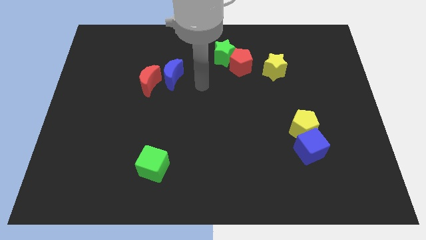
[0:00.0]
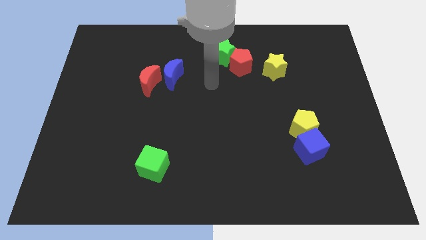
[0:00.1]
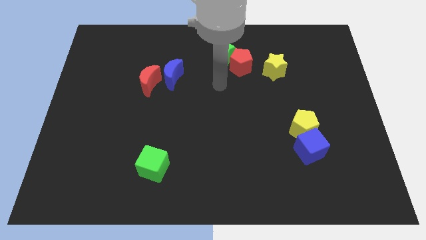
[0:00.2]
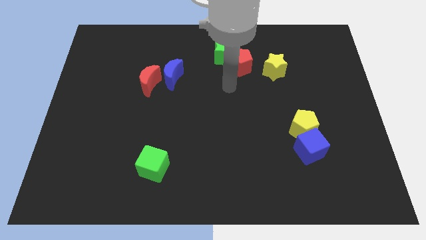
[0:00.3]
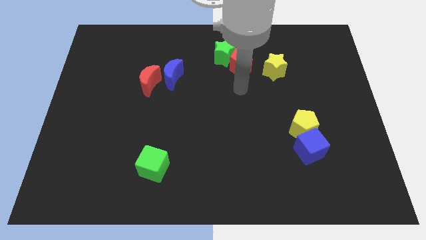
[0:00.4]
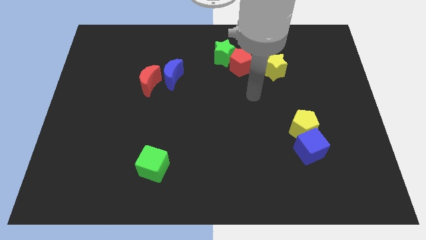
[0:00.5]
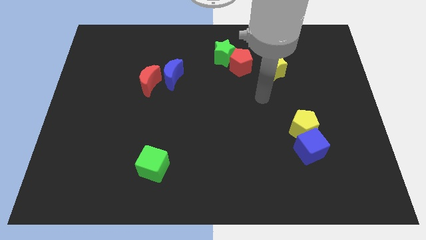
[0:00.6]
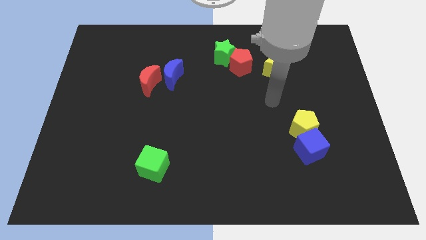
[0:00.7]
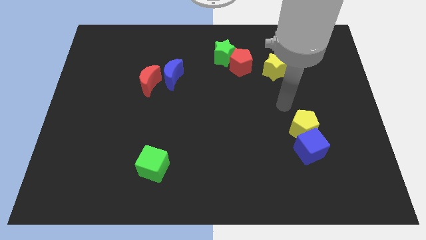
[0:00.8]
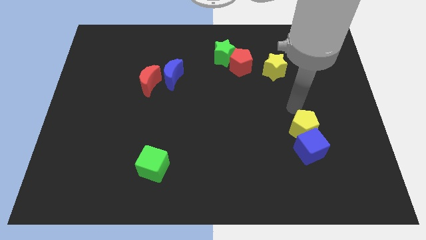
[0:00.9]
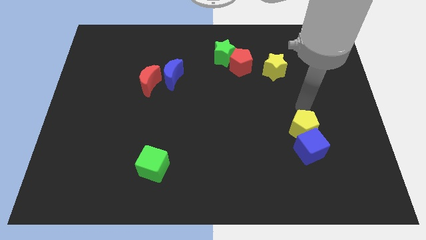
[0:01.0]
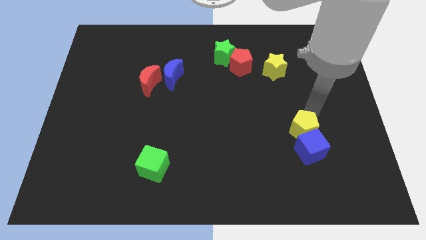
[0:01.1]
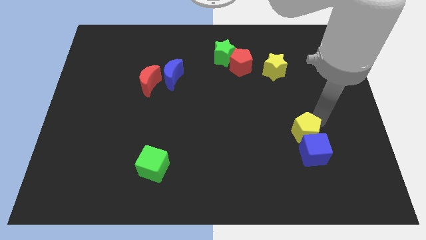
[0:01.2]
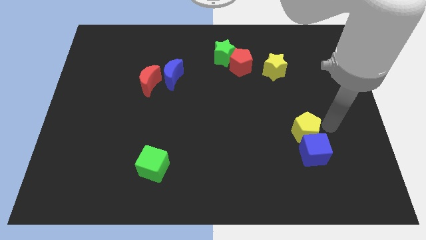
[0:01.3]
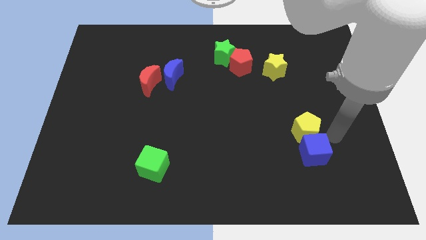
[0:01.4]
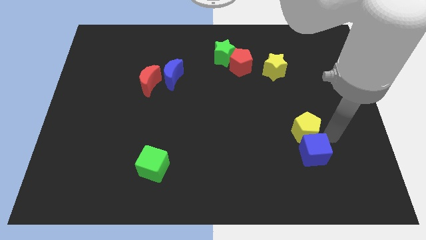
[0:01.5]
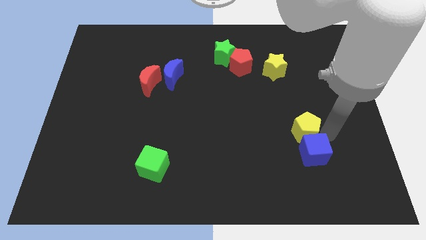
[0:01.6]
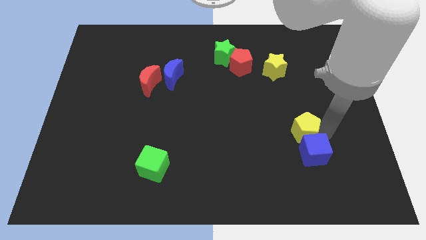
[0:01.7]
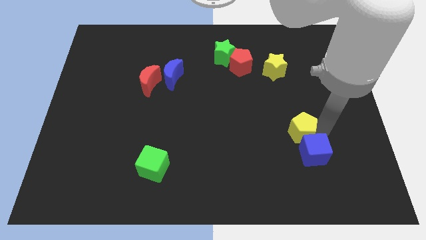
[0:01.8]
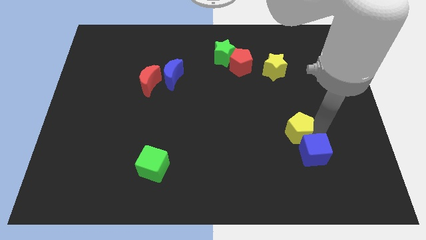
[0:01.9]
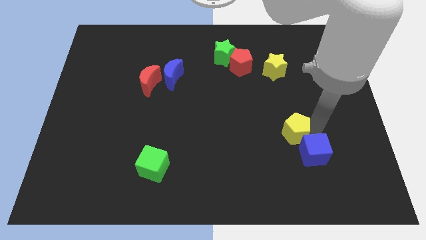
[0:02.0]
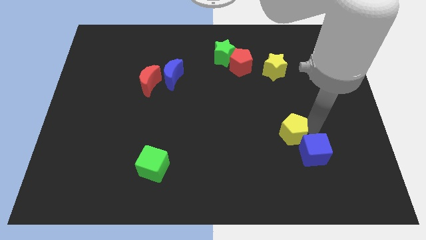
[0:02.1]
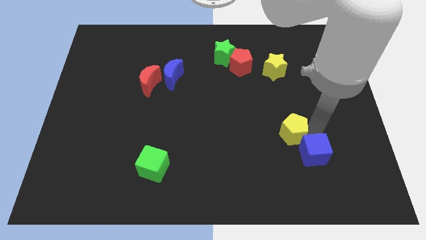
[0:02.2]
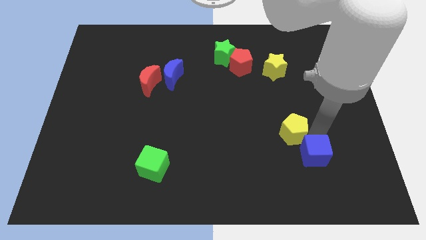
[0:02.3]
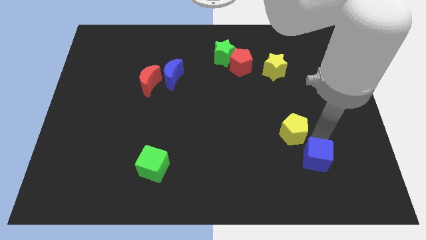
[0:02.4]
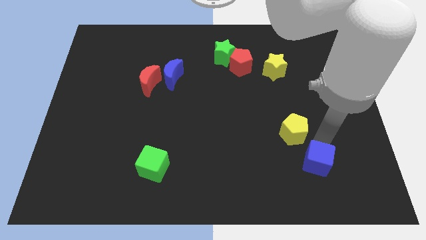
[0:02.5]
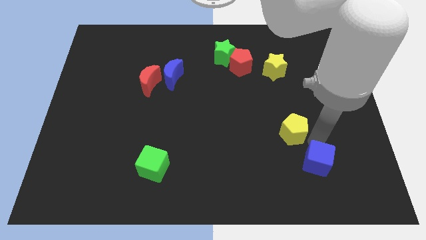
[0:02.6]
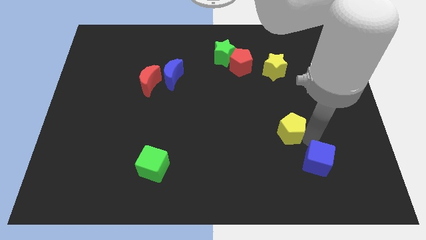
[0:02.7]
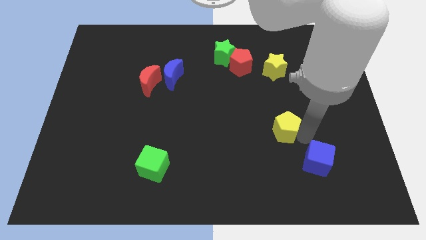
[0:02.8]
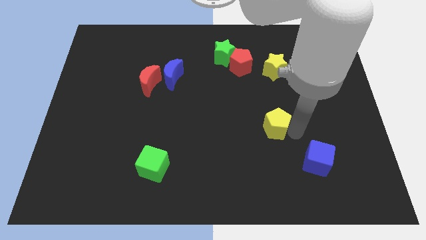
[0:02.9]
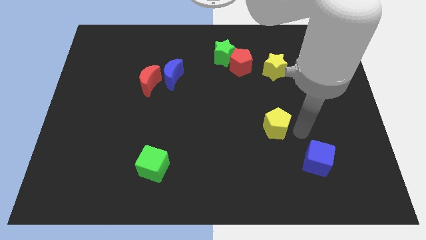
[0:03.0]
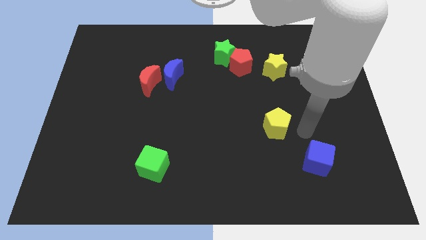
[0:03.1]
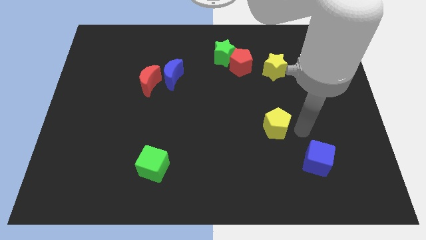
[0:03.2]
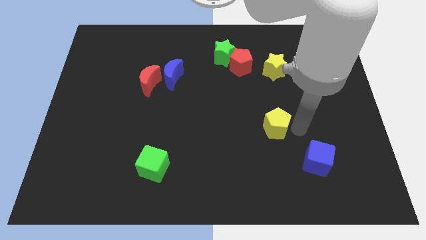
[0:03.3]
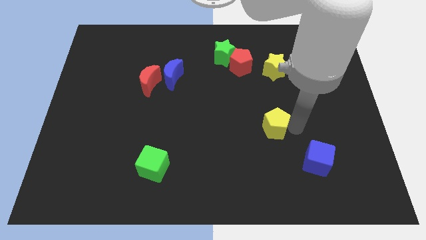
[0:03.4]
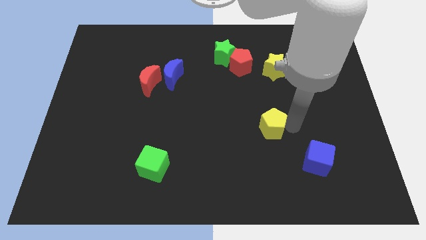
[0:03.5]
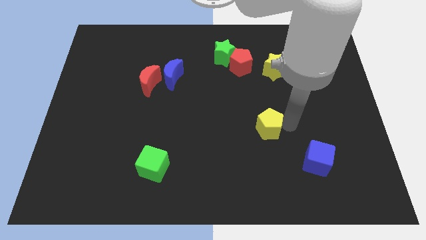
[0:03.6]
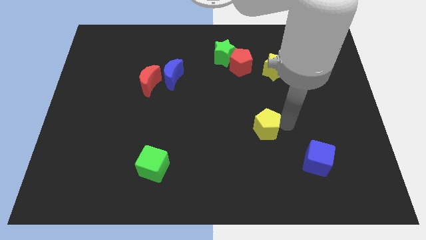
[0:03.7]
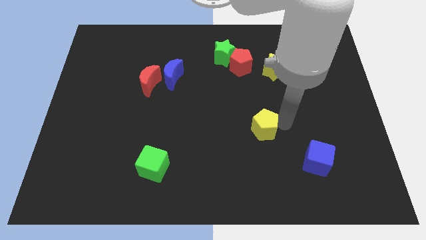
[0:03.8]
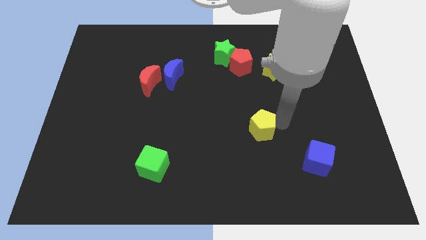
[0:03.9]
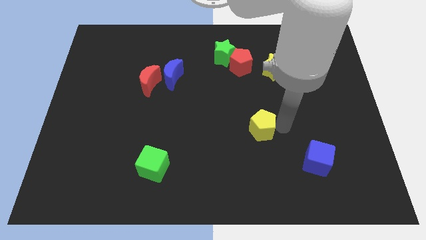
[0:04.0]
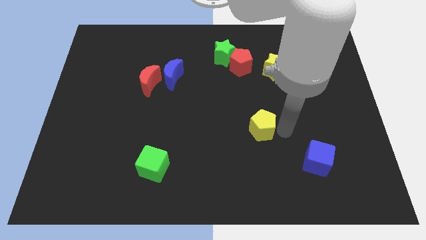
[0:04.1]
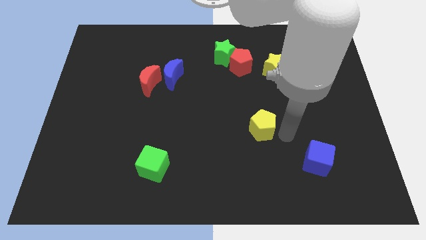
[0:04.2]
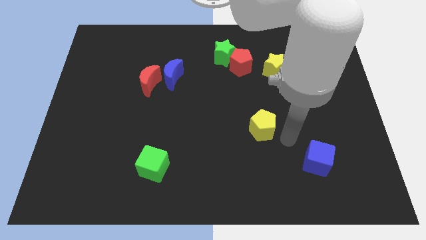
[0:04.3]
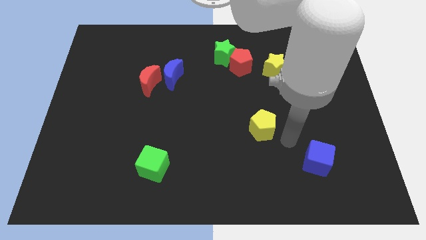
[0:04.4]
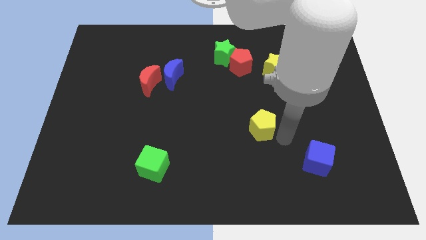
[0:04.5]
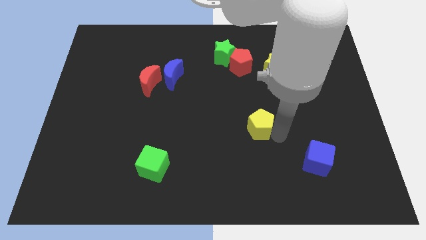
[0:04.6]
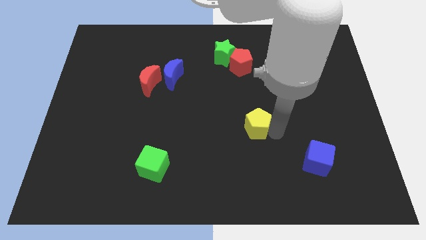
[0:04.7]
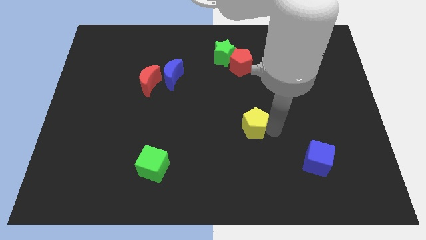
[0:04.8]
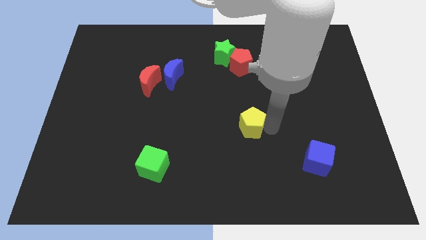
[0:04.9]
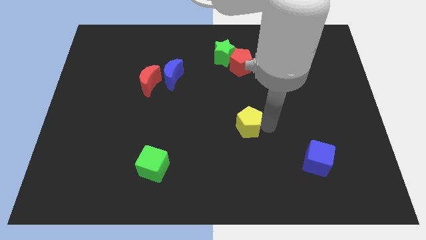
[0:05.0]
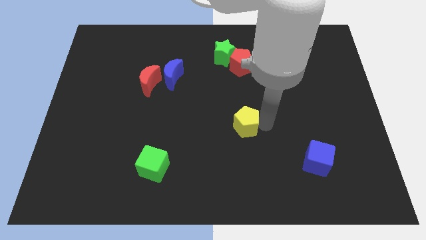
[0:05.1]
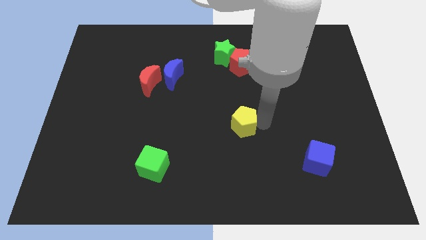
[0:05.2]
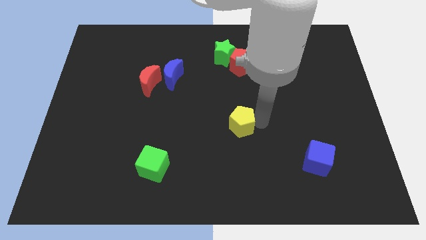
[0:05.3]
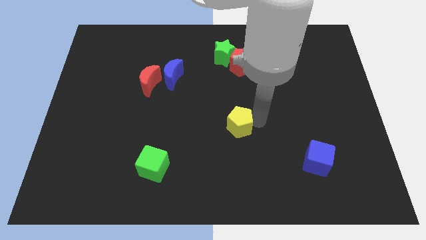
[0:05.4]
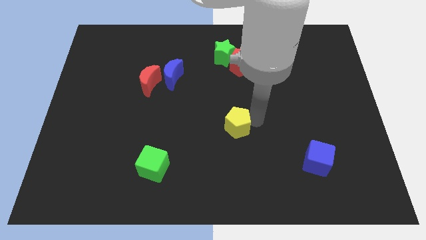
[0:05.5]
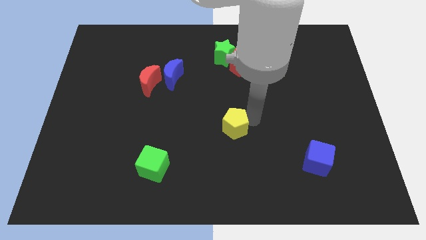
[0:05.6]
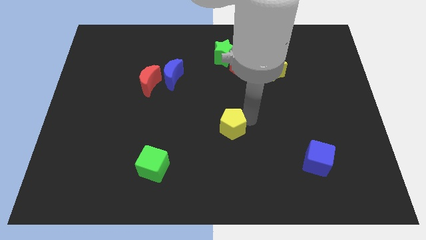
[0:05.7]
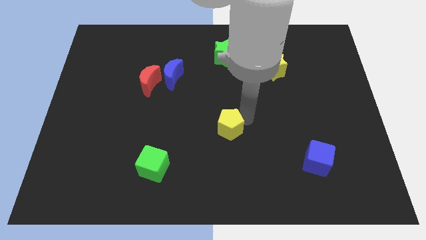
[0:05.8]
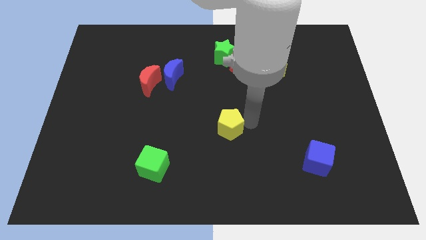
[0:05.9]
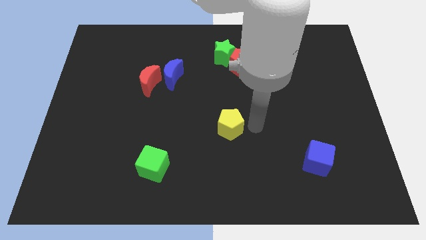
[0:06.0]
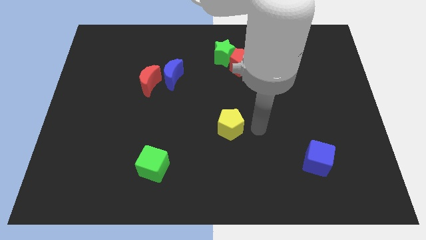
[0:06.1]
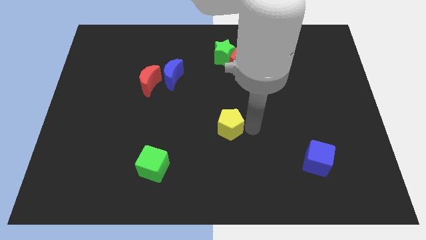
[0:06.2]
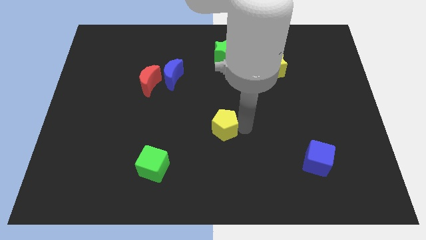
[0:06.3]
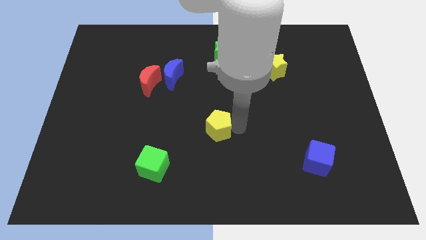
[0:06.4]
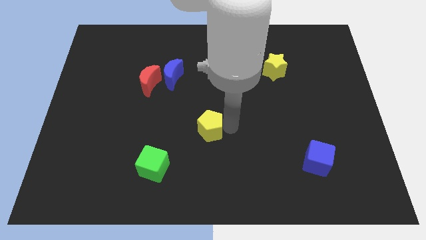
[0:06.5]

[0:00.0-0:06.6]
slide the yellow pentagon to the left

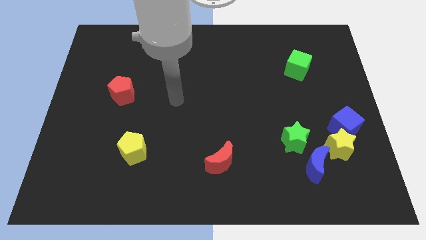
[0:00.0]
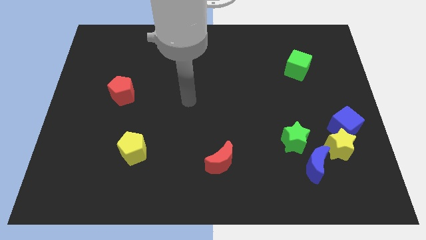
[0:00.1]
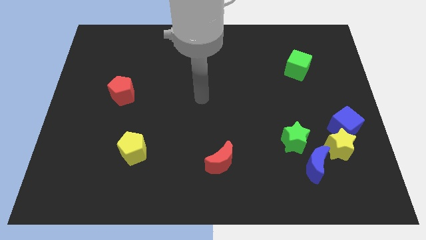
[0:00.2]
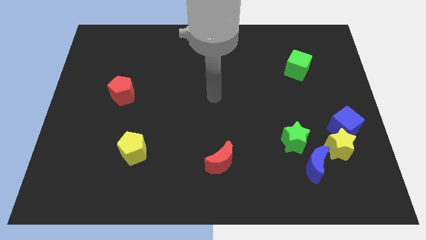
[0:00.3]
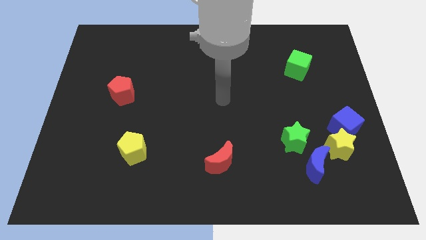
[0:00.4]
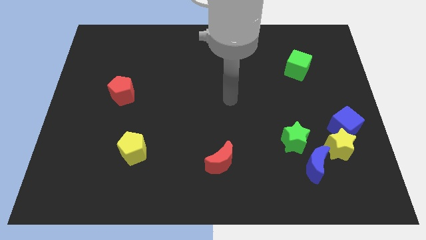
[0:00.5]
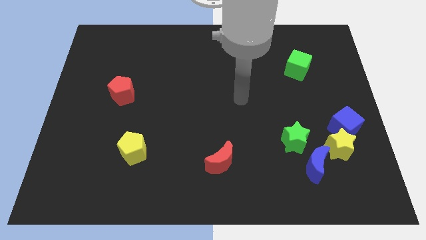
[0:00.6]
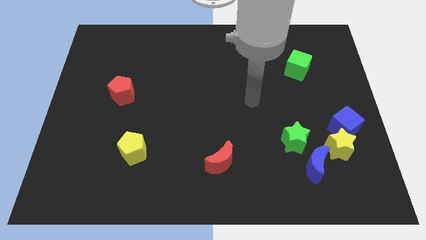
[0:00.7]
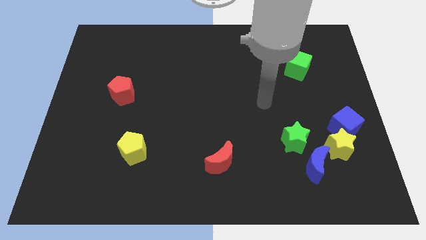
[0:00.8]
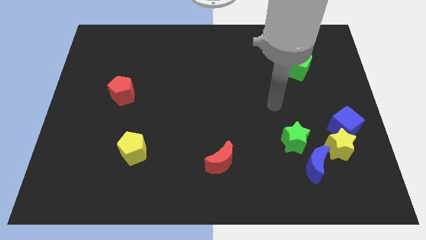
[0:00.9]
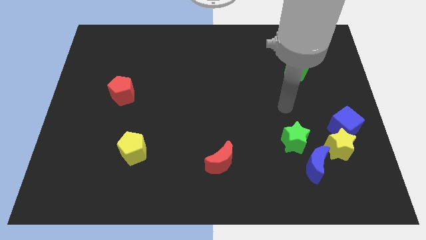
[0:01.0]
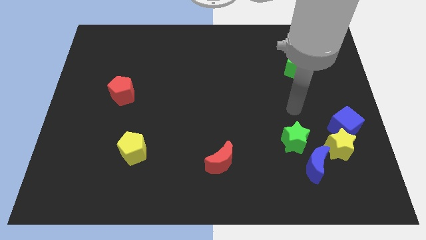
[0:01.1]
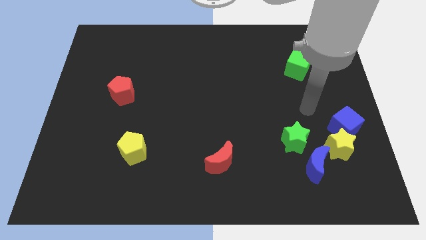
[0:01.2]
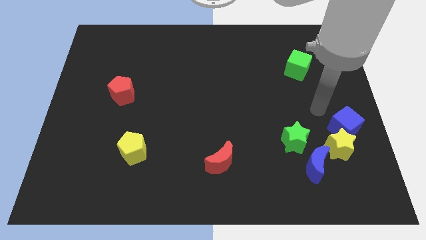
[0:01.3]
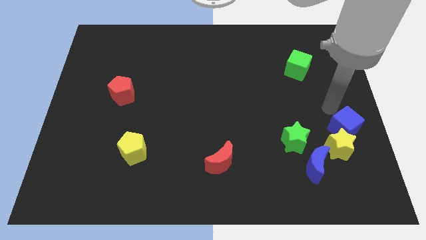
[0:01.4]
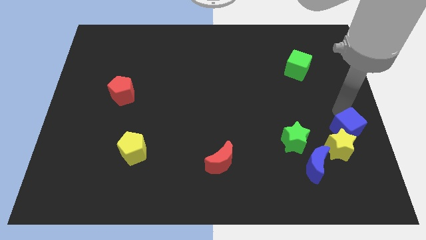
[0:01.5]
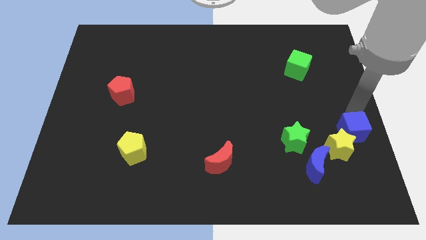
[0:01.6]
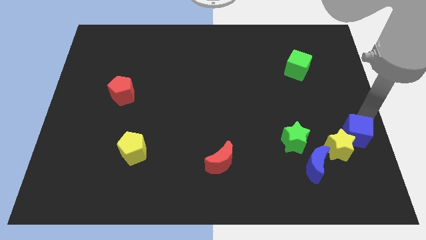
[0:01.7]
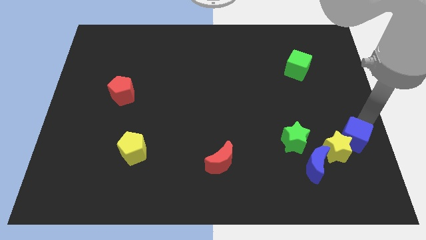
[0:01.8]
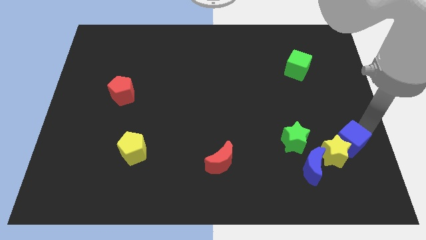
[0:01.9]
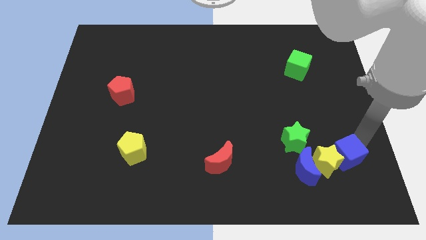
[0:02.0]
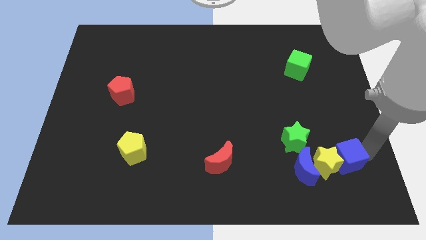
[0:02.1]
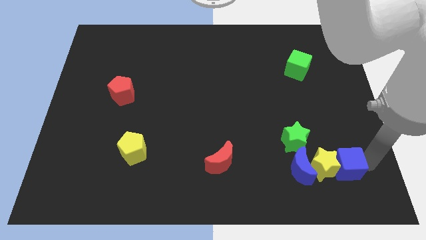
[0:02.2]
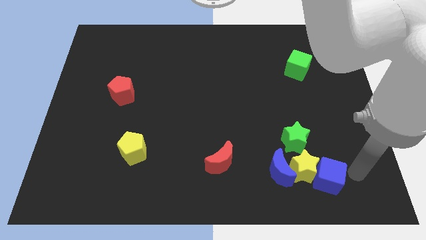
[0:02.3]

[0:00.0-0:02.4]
slide the yellow star slightly to the left
